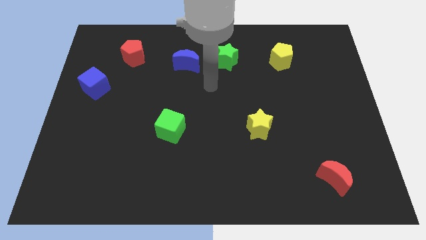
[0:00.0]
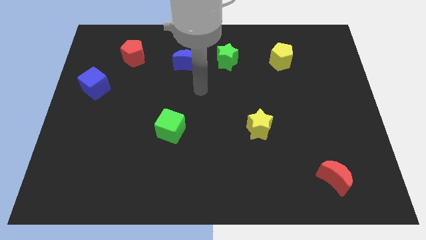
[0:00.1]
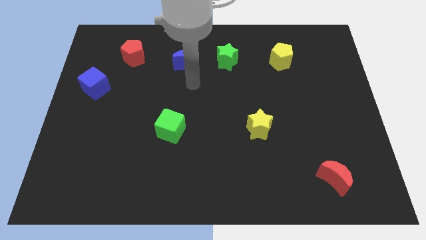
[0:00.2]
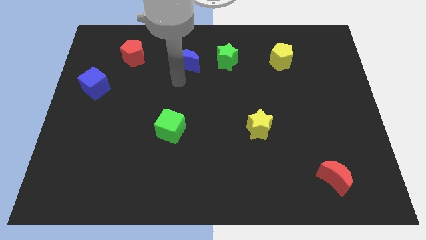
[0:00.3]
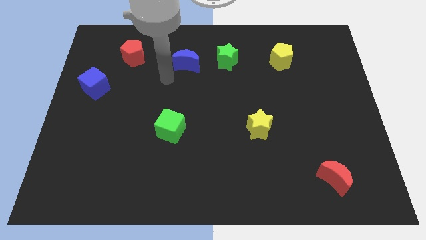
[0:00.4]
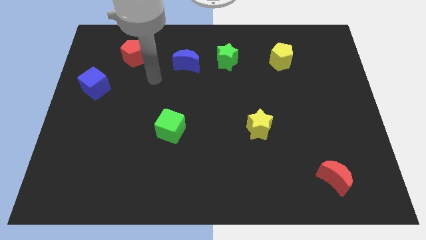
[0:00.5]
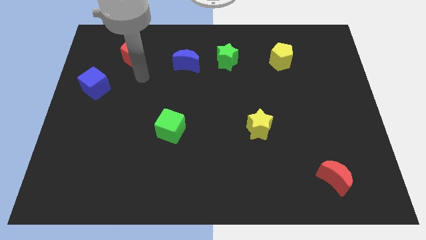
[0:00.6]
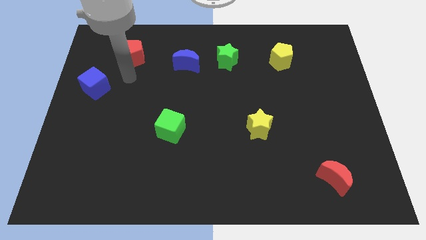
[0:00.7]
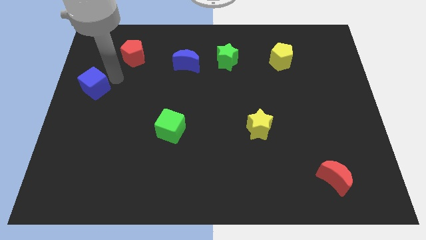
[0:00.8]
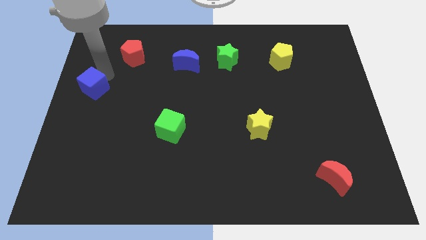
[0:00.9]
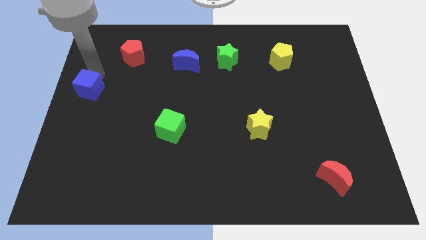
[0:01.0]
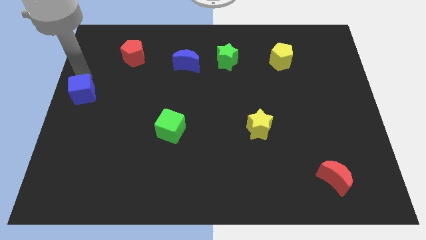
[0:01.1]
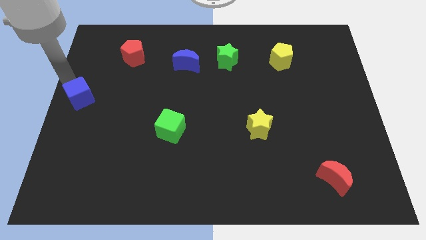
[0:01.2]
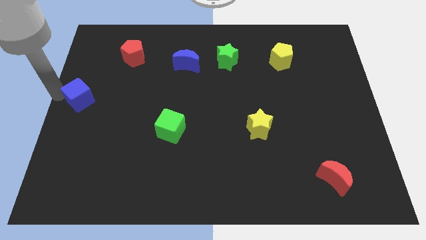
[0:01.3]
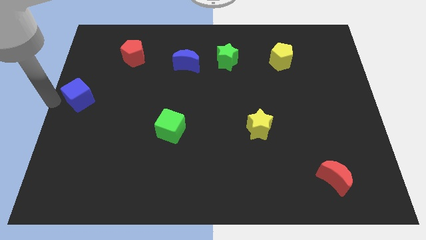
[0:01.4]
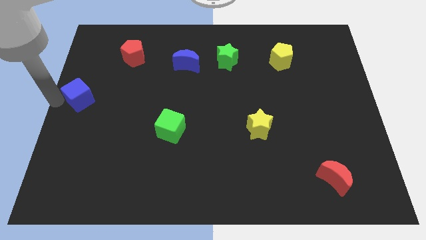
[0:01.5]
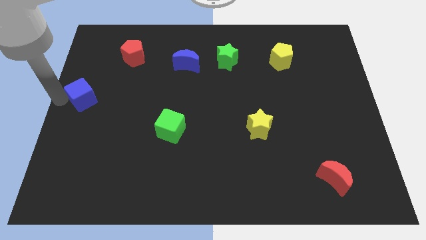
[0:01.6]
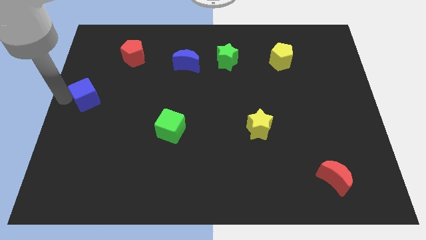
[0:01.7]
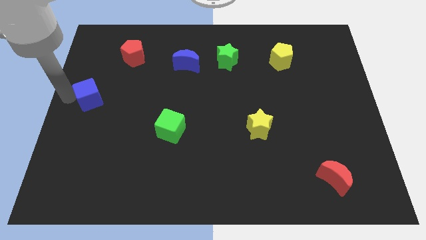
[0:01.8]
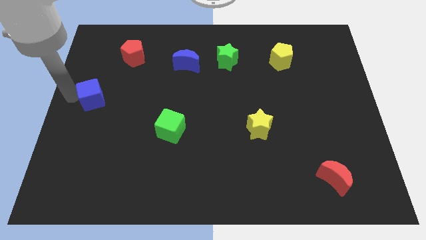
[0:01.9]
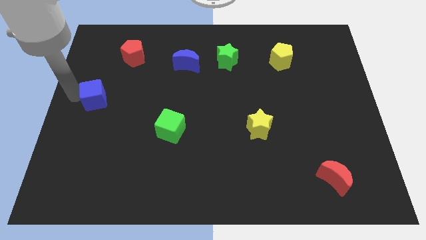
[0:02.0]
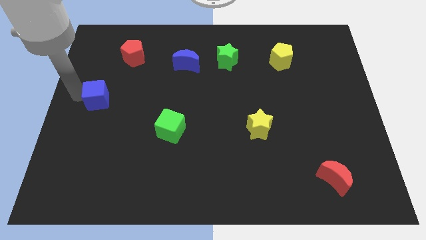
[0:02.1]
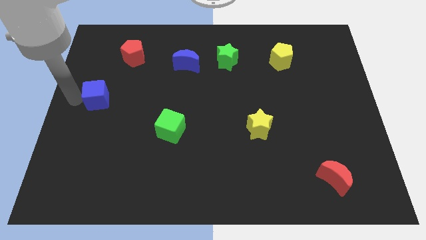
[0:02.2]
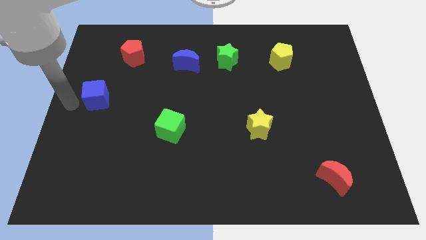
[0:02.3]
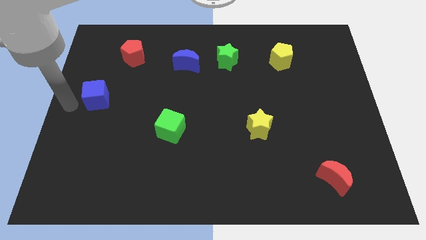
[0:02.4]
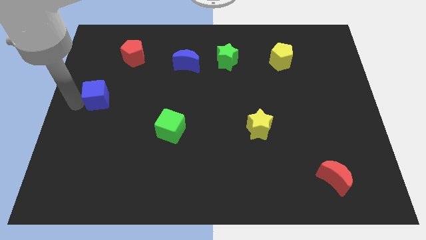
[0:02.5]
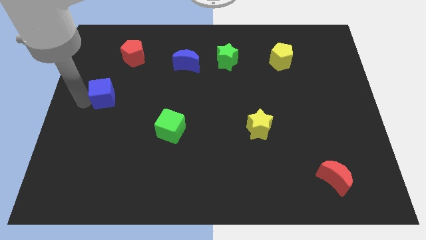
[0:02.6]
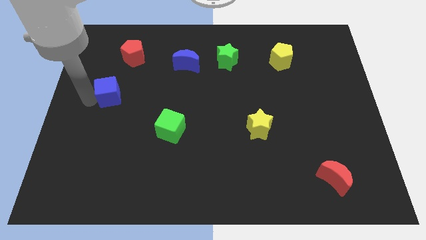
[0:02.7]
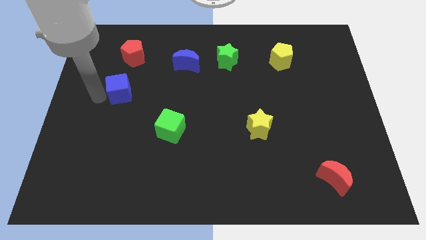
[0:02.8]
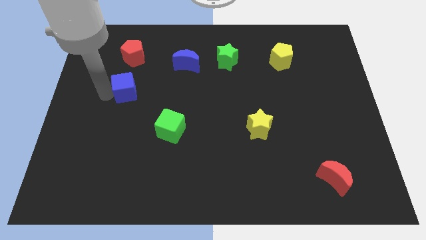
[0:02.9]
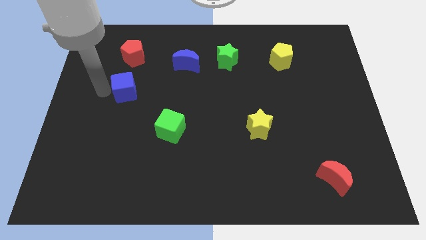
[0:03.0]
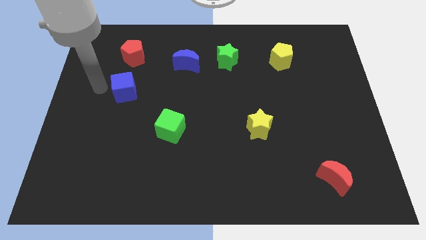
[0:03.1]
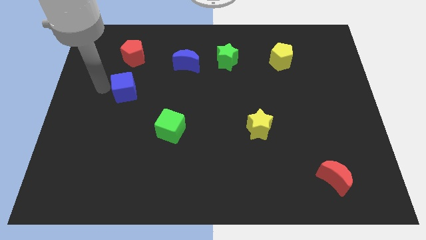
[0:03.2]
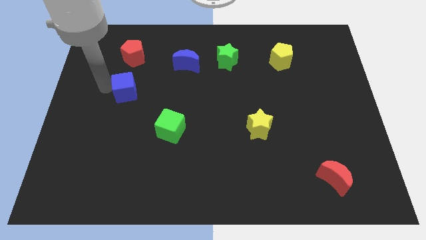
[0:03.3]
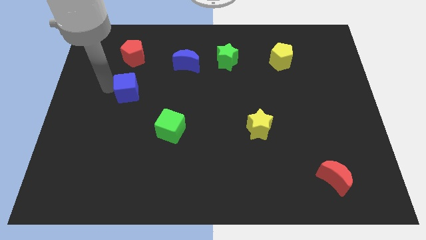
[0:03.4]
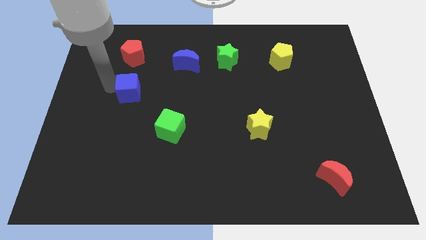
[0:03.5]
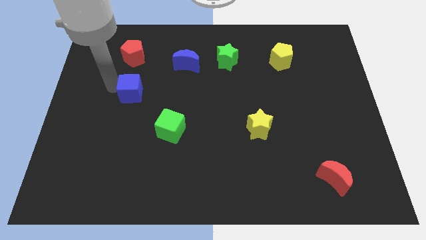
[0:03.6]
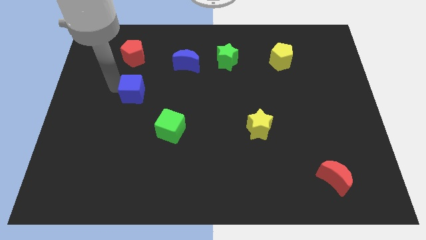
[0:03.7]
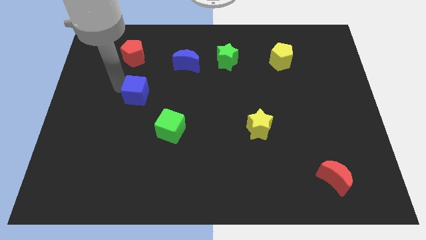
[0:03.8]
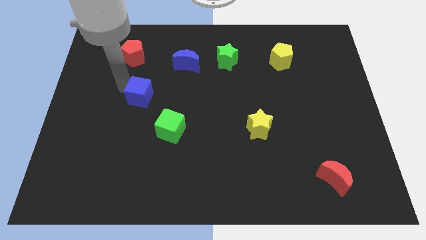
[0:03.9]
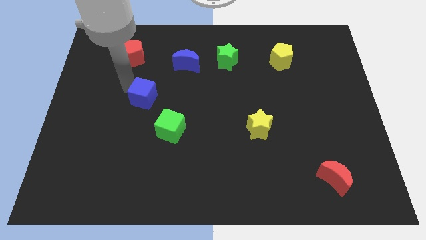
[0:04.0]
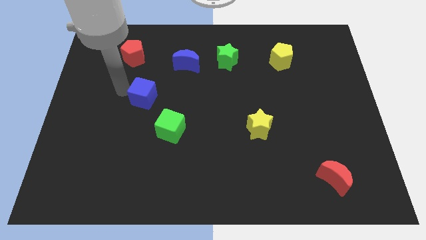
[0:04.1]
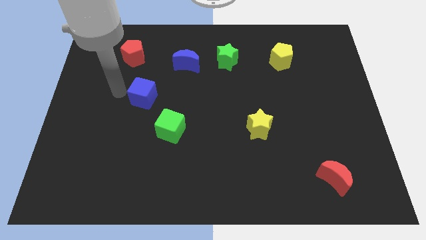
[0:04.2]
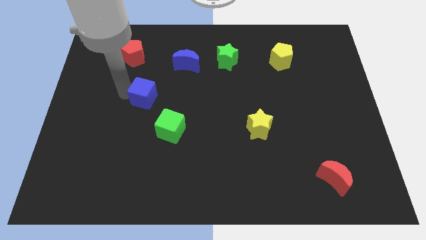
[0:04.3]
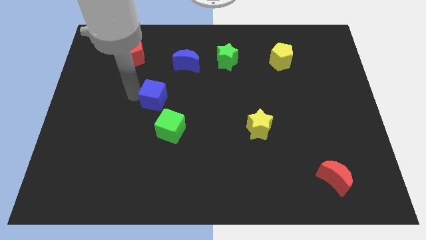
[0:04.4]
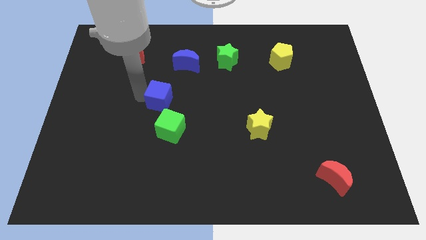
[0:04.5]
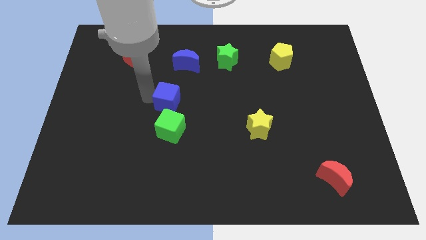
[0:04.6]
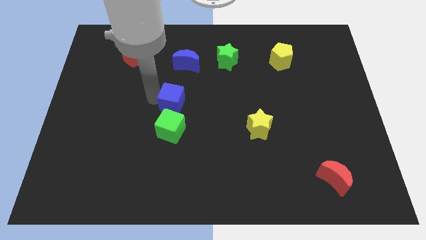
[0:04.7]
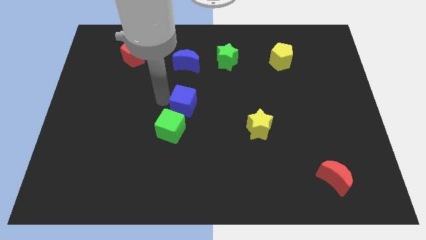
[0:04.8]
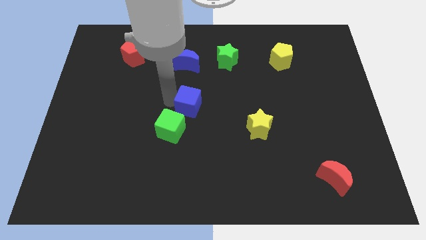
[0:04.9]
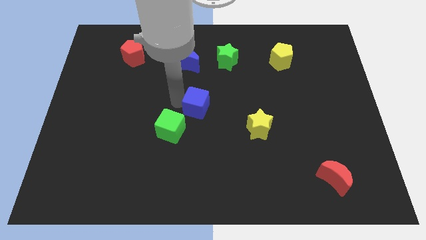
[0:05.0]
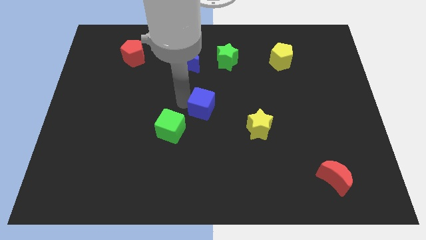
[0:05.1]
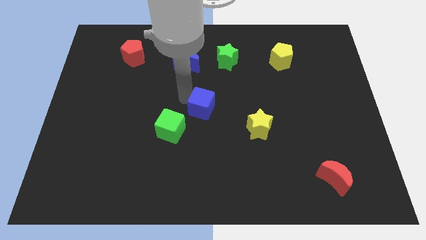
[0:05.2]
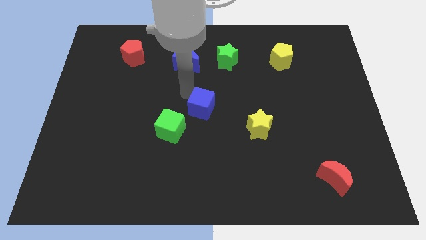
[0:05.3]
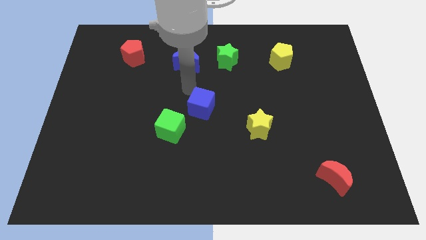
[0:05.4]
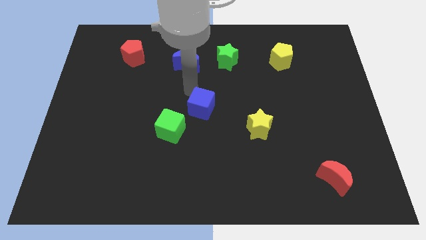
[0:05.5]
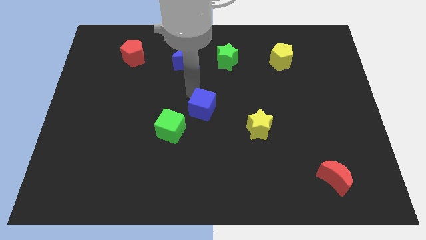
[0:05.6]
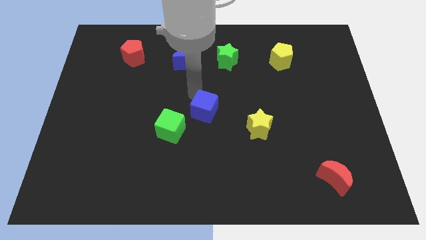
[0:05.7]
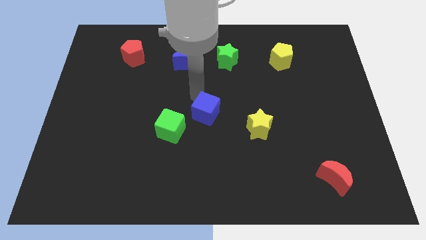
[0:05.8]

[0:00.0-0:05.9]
push the blue cube just right of the green cube
